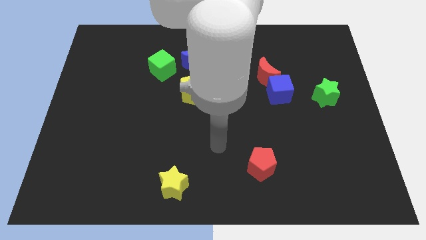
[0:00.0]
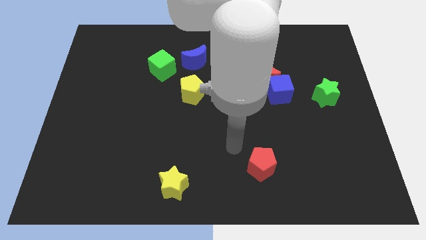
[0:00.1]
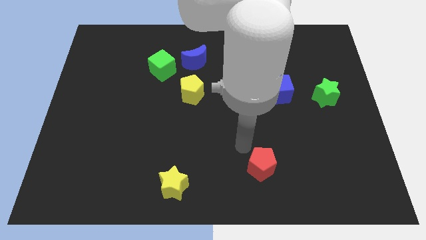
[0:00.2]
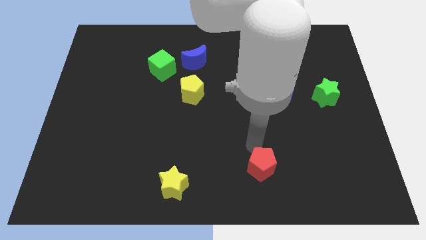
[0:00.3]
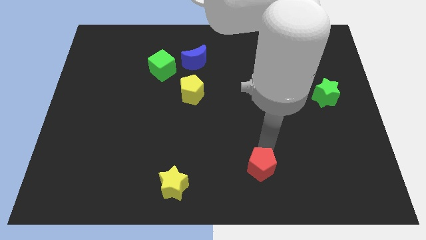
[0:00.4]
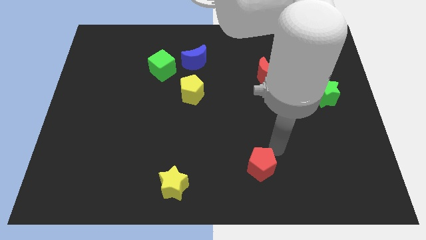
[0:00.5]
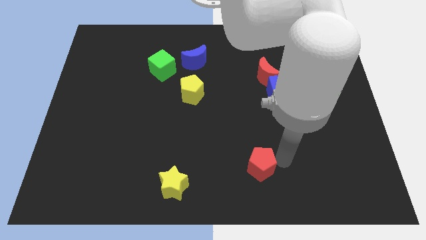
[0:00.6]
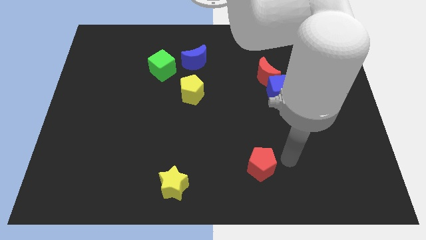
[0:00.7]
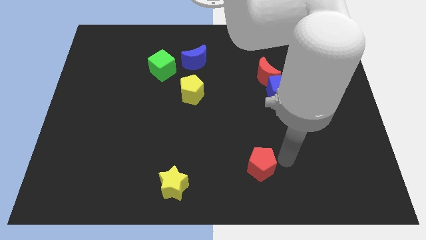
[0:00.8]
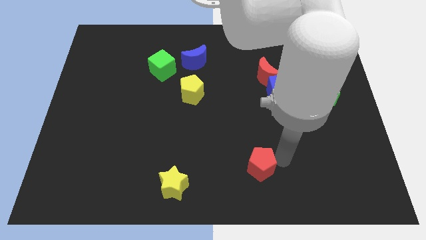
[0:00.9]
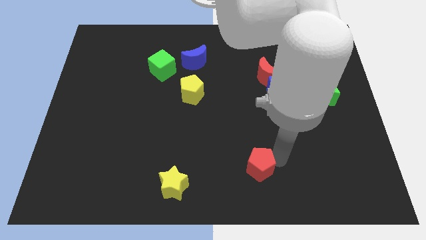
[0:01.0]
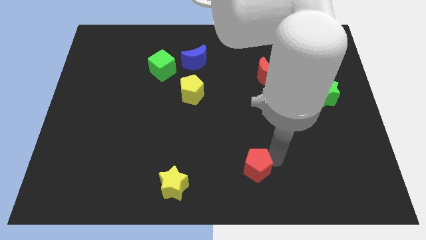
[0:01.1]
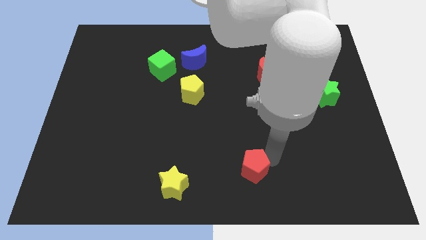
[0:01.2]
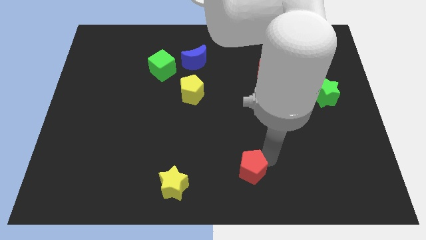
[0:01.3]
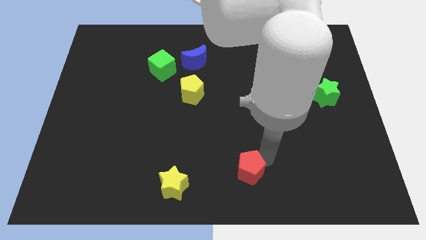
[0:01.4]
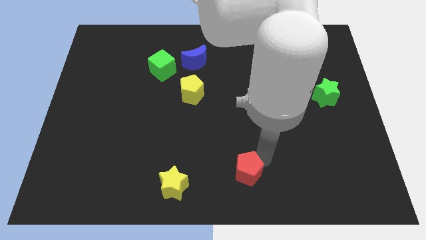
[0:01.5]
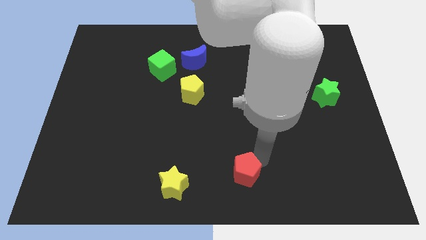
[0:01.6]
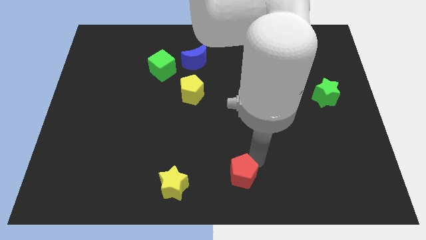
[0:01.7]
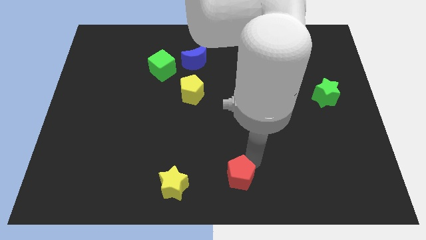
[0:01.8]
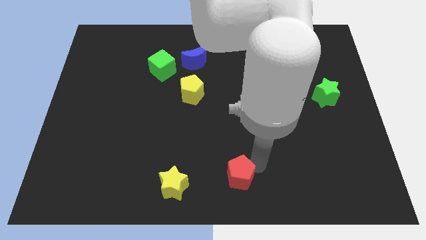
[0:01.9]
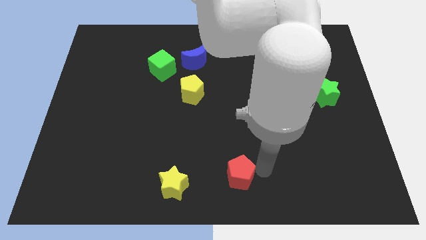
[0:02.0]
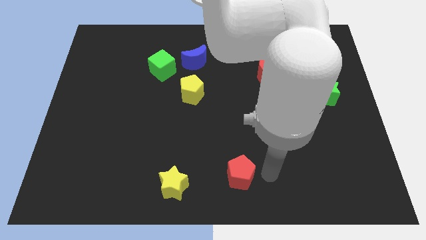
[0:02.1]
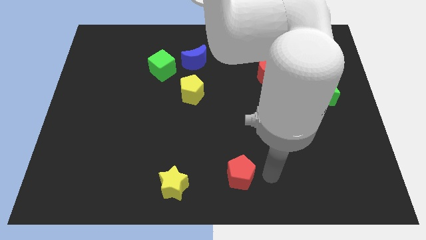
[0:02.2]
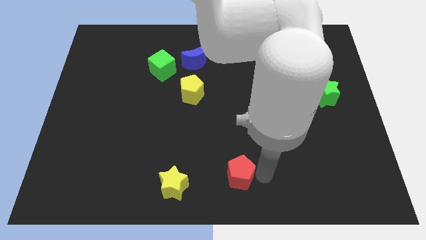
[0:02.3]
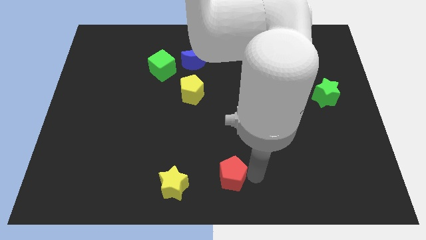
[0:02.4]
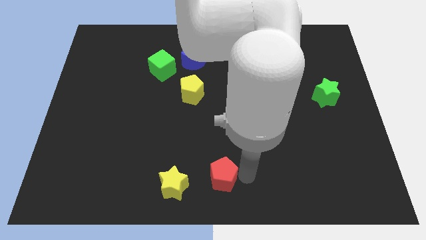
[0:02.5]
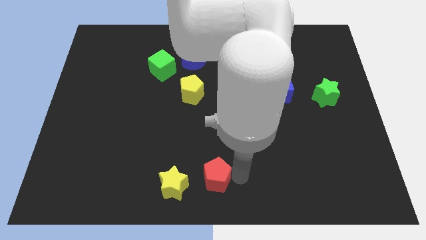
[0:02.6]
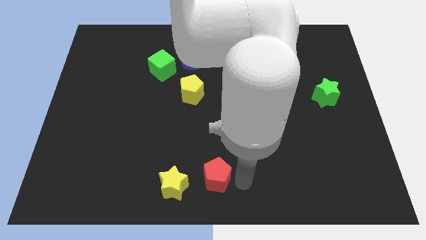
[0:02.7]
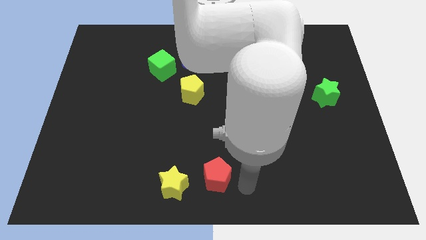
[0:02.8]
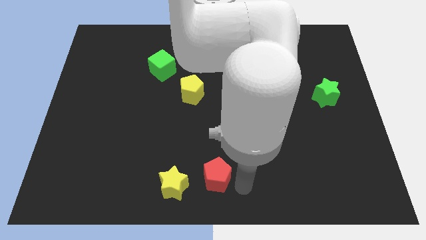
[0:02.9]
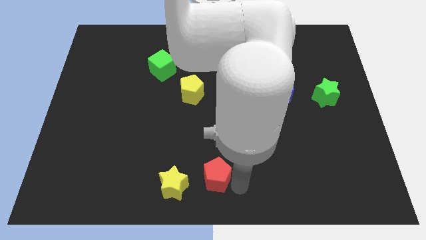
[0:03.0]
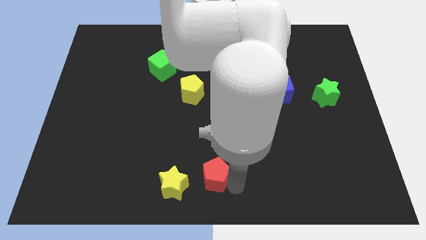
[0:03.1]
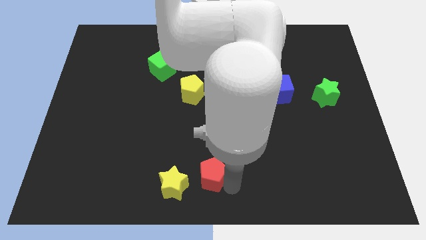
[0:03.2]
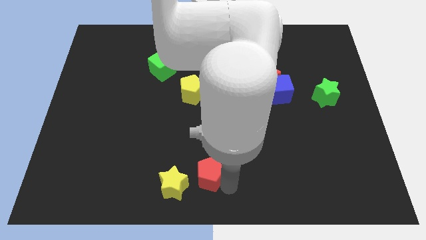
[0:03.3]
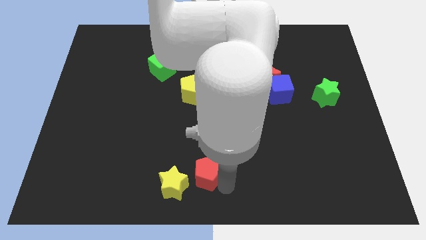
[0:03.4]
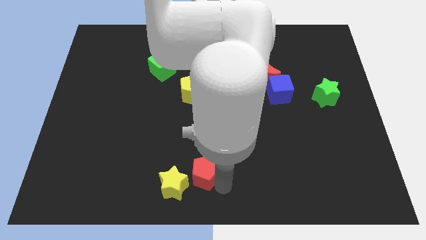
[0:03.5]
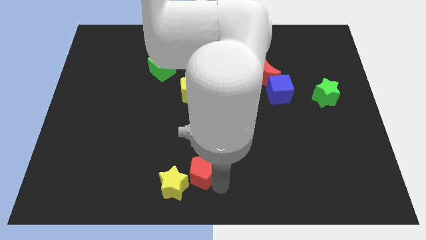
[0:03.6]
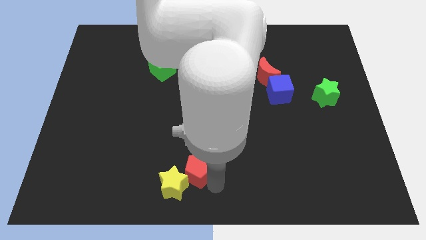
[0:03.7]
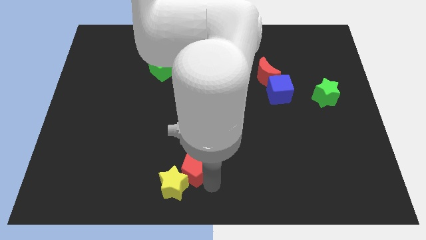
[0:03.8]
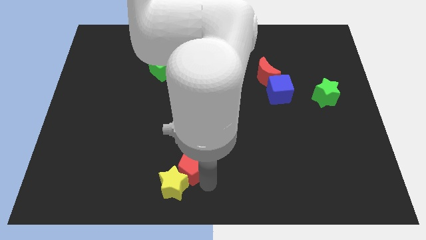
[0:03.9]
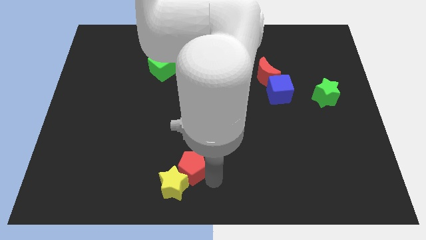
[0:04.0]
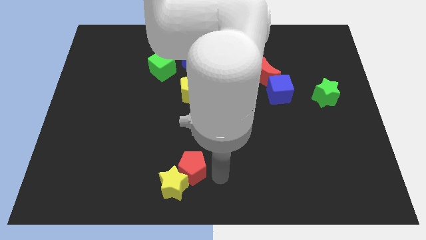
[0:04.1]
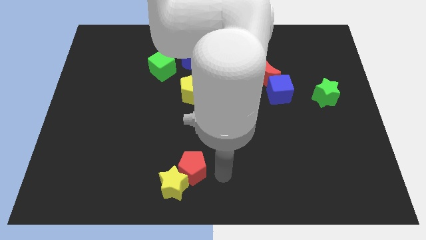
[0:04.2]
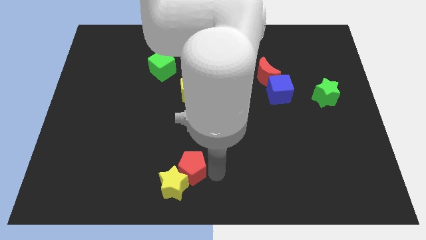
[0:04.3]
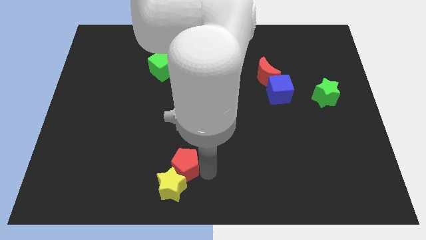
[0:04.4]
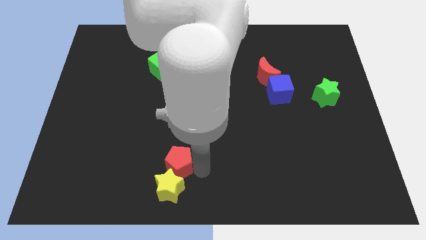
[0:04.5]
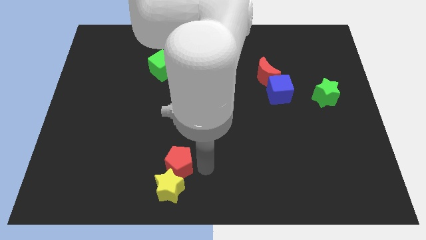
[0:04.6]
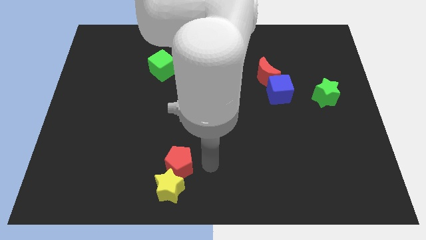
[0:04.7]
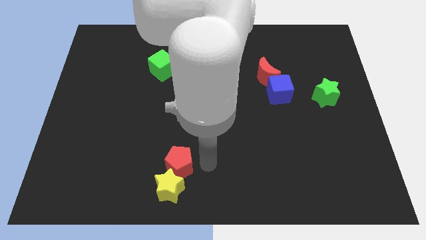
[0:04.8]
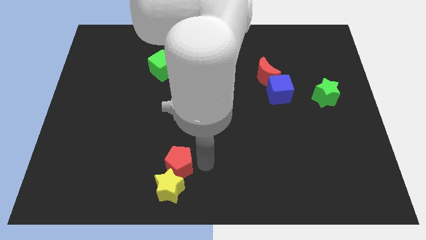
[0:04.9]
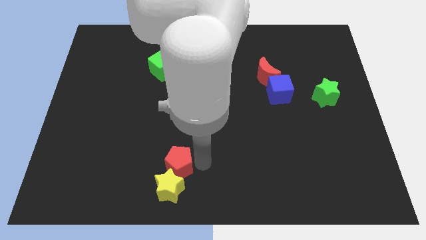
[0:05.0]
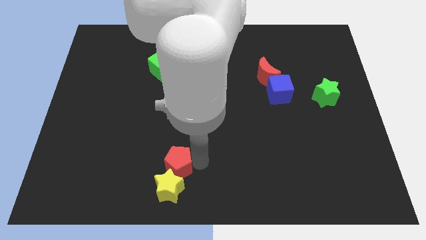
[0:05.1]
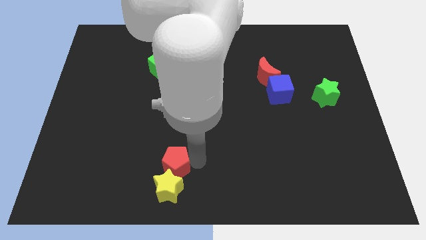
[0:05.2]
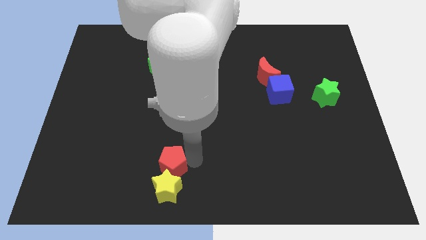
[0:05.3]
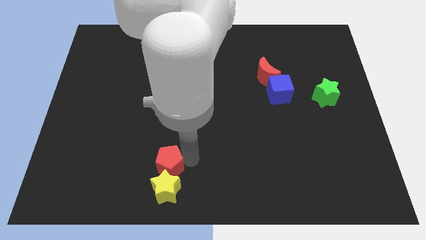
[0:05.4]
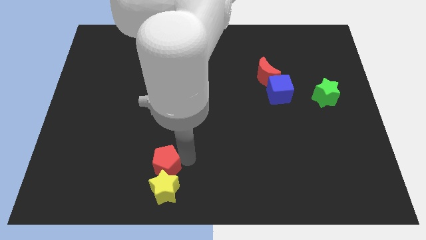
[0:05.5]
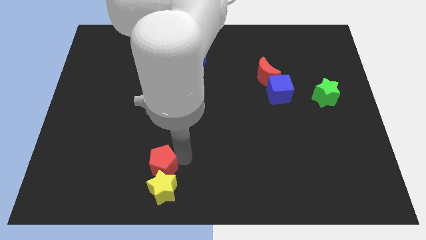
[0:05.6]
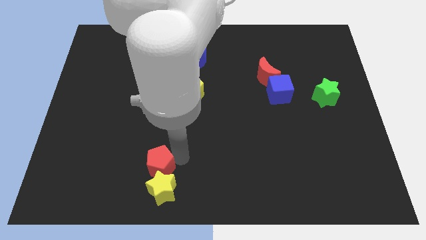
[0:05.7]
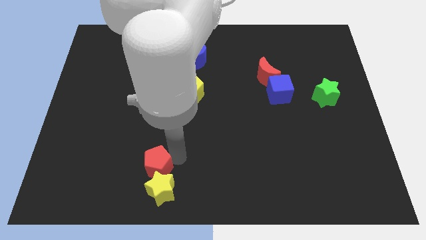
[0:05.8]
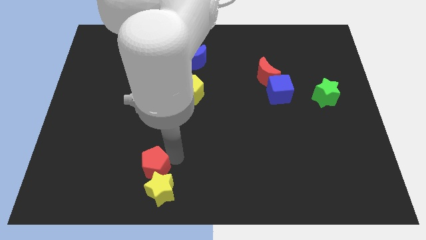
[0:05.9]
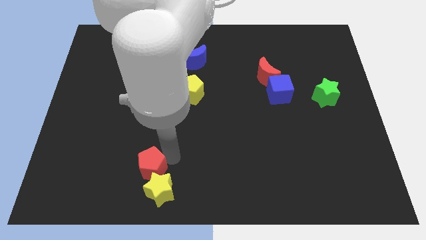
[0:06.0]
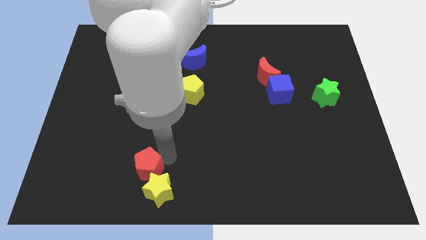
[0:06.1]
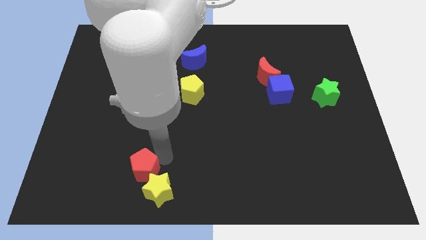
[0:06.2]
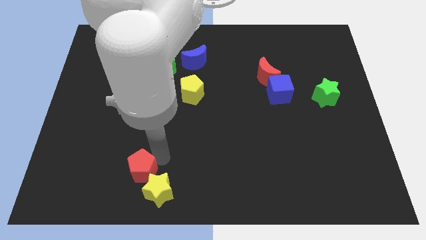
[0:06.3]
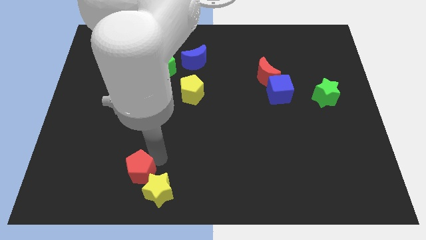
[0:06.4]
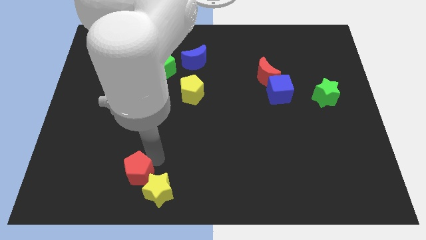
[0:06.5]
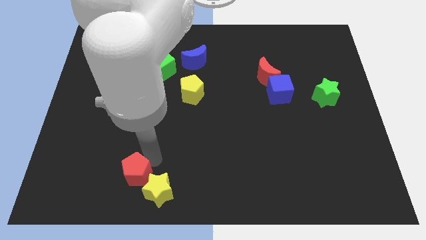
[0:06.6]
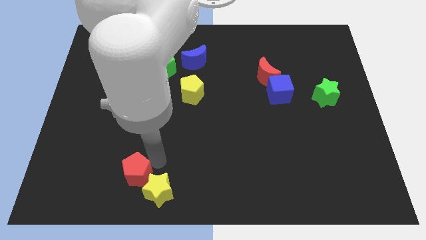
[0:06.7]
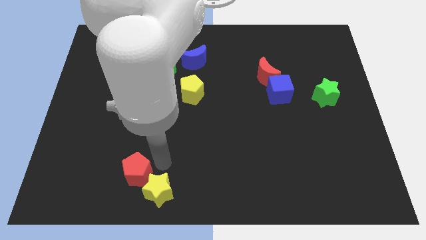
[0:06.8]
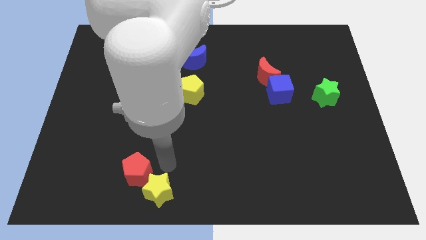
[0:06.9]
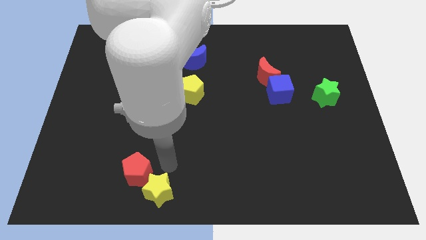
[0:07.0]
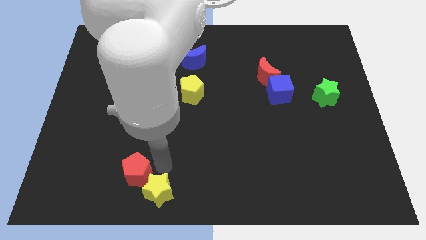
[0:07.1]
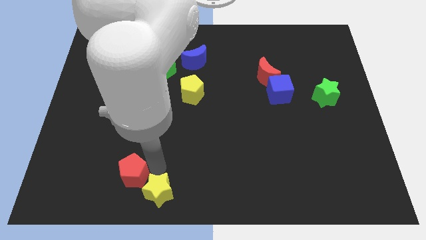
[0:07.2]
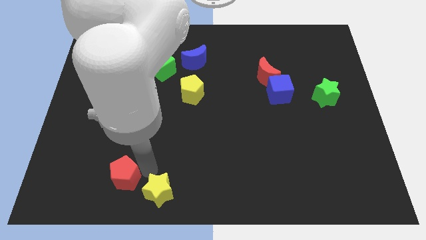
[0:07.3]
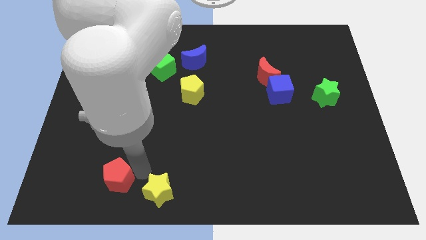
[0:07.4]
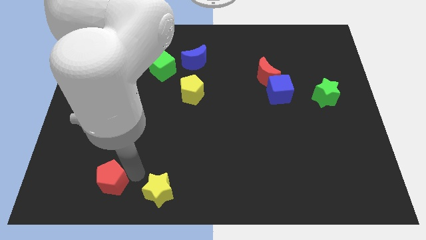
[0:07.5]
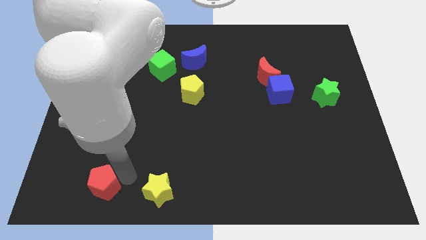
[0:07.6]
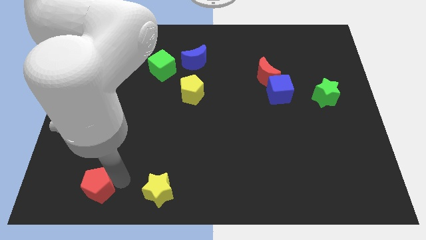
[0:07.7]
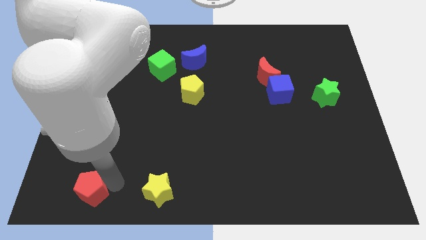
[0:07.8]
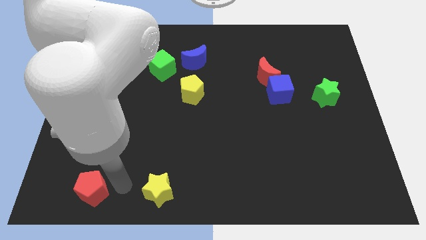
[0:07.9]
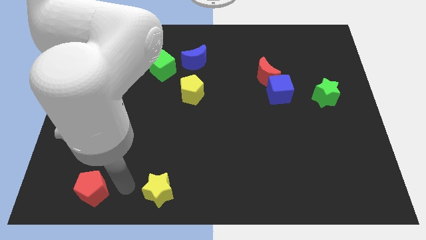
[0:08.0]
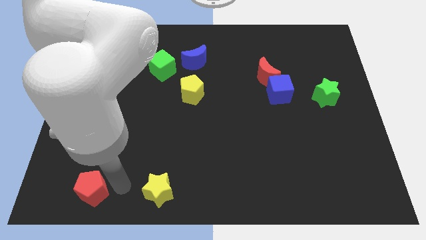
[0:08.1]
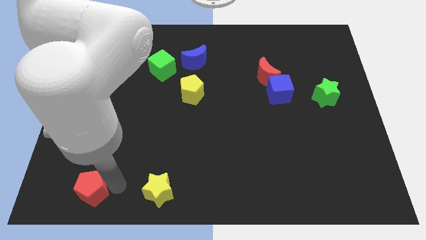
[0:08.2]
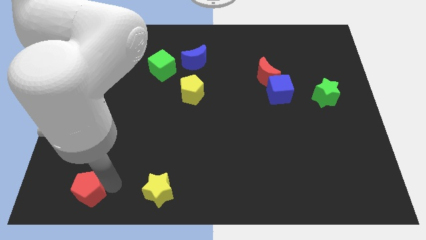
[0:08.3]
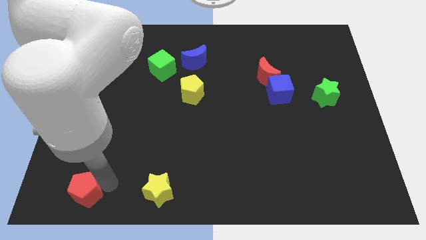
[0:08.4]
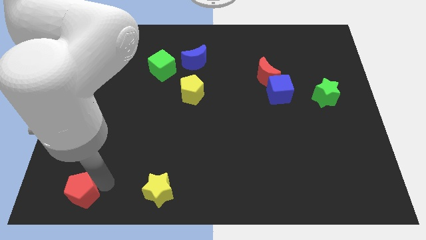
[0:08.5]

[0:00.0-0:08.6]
move the red pentagon to the bottom left corner
